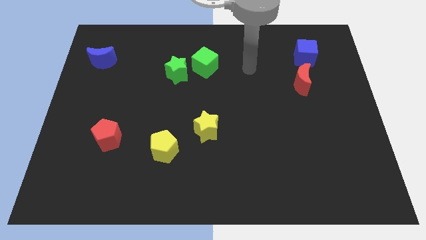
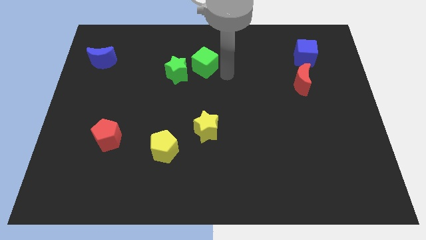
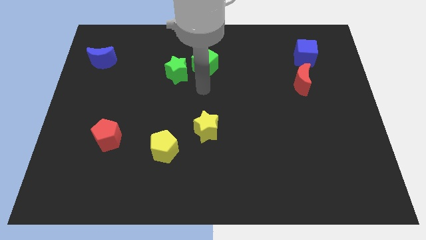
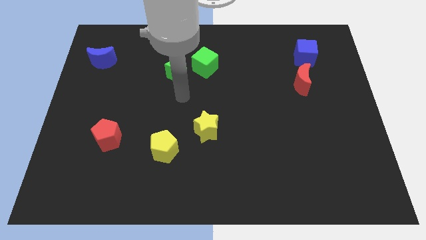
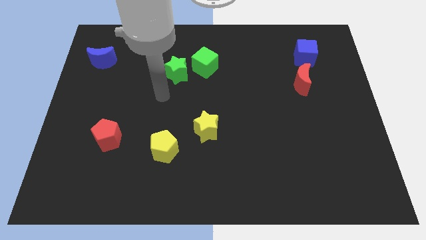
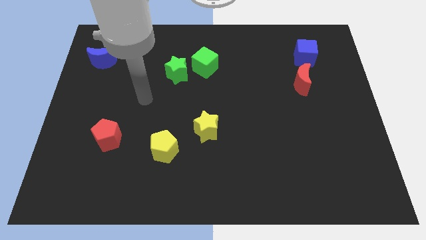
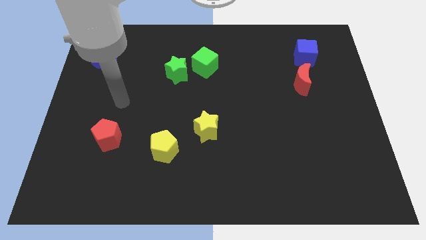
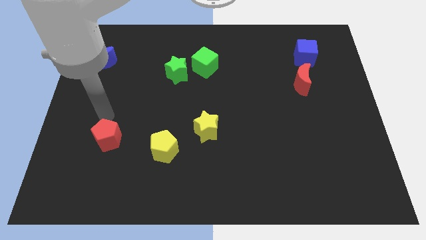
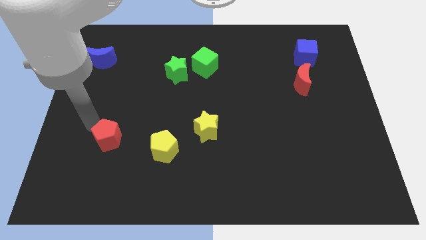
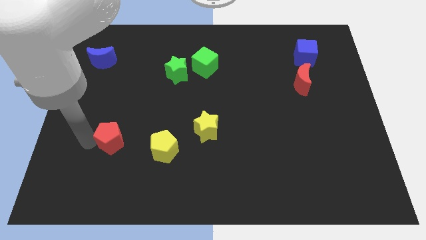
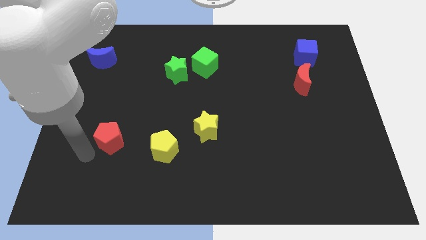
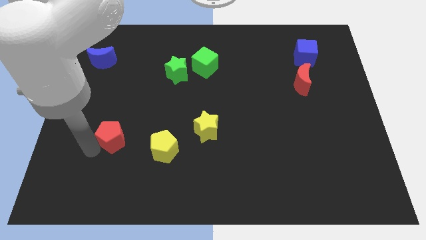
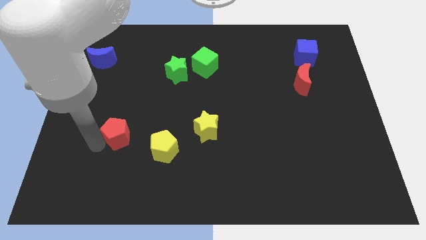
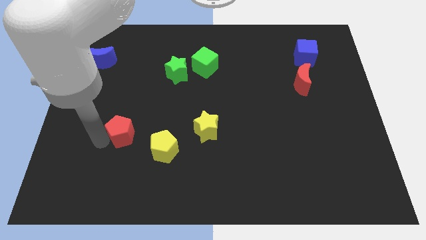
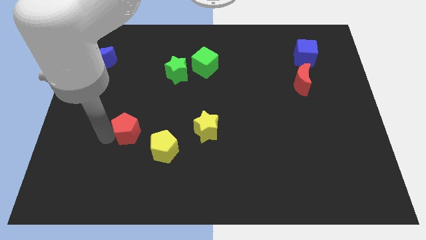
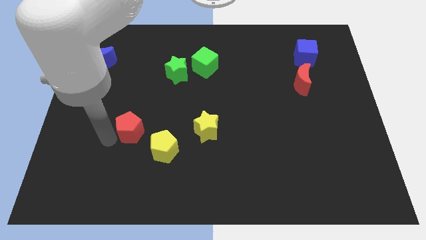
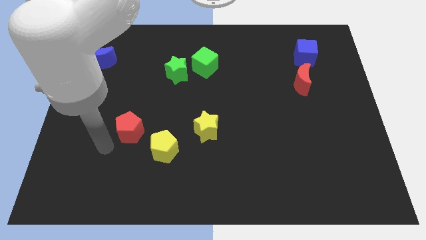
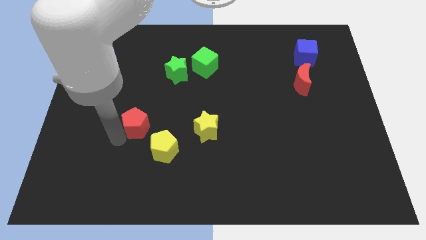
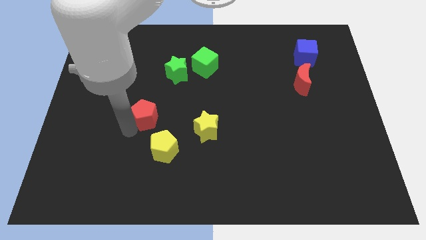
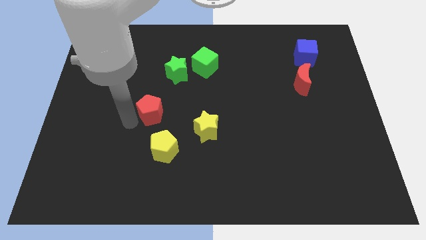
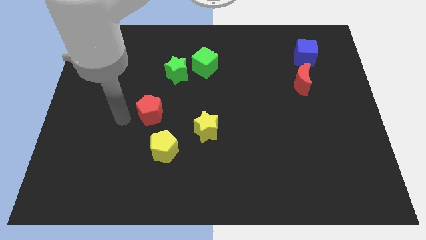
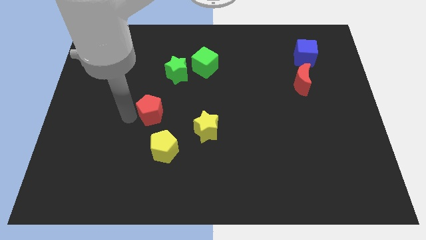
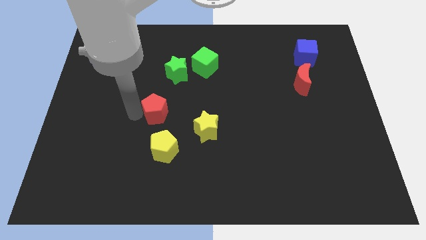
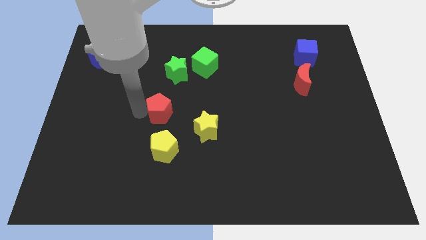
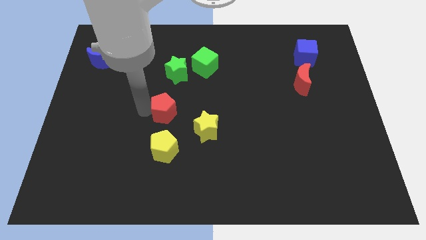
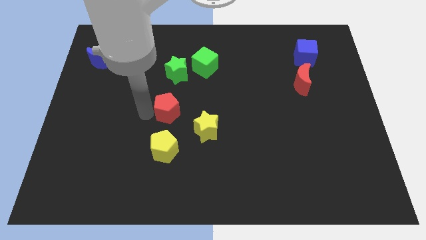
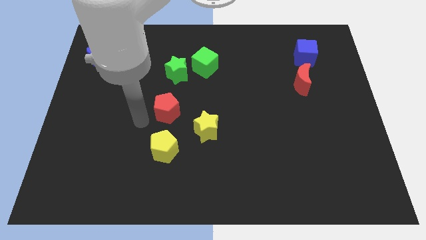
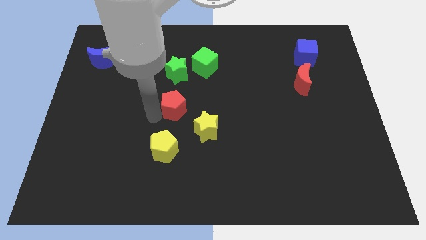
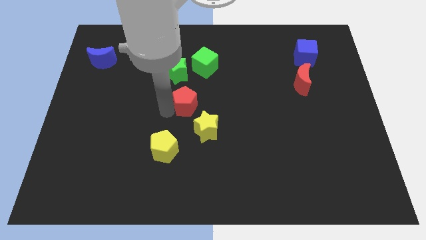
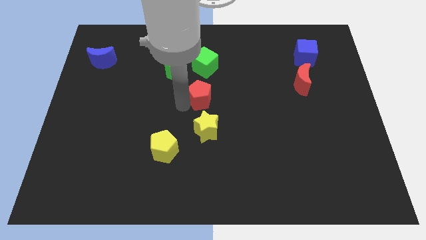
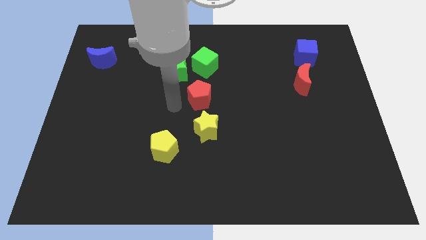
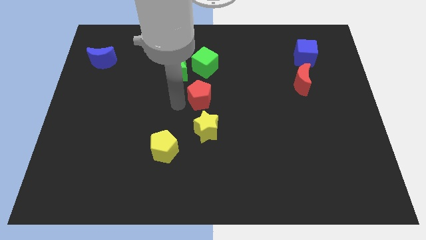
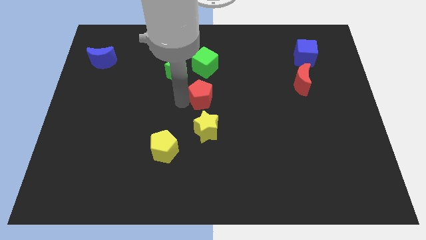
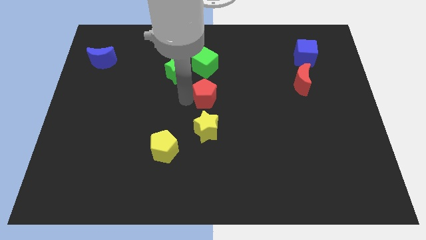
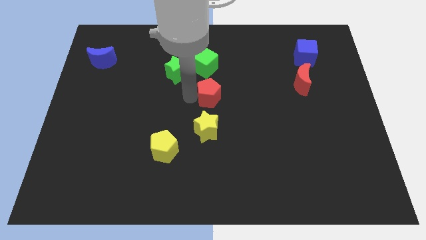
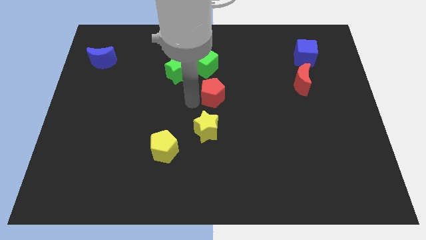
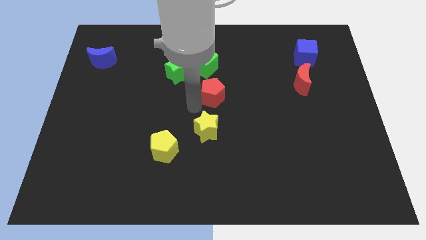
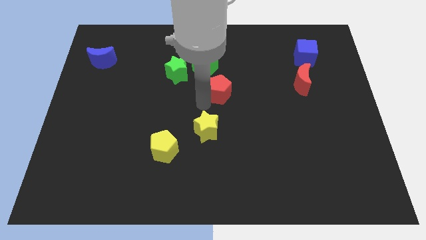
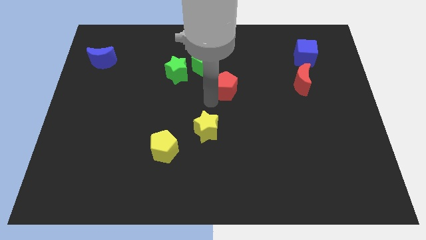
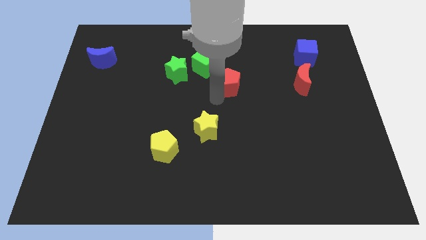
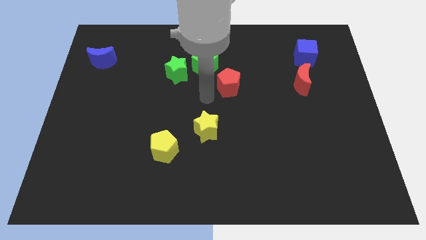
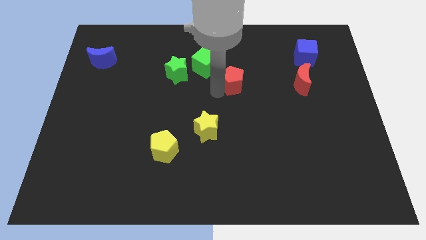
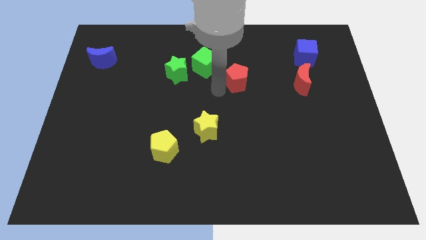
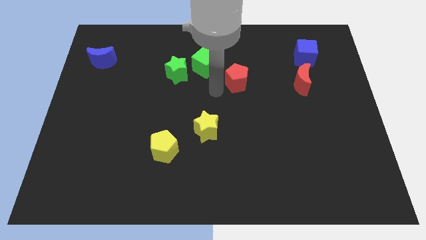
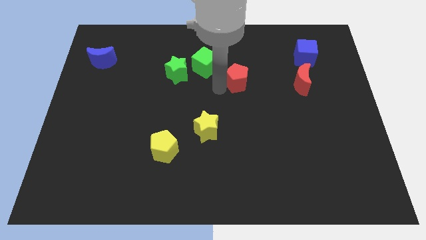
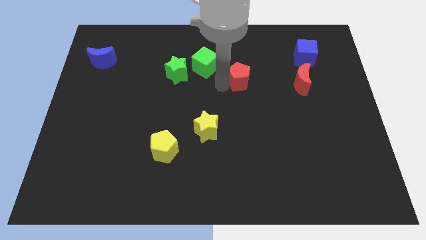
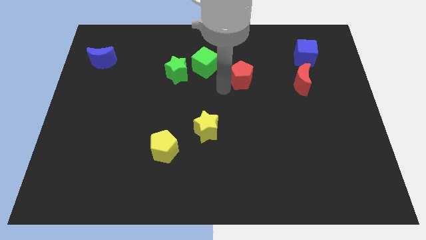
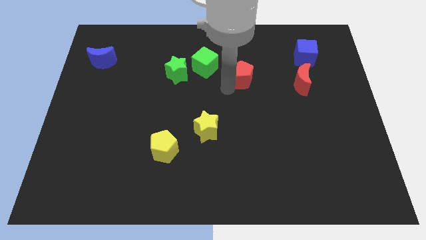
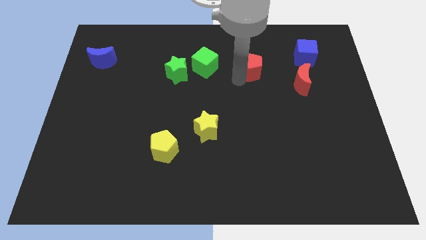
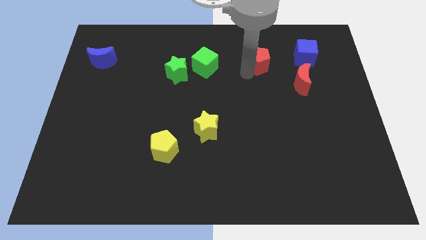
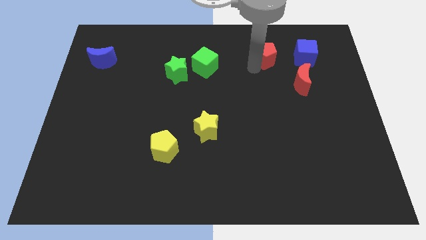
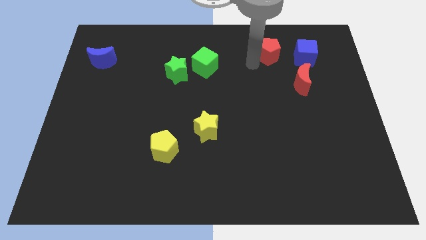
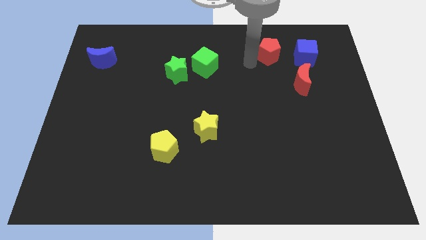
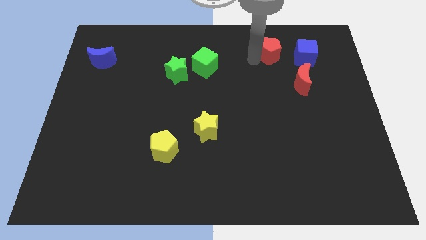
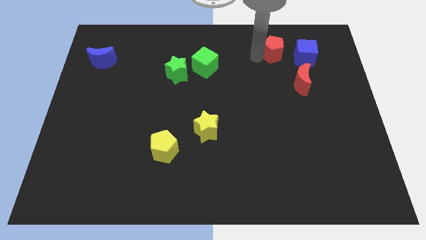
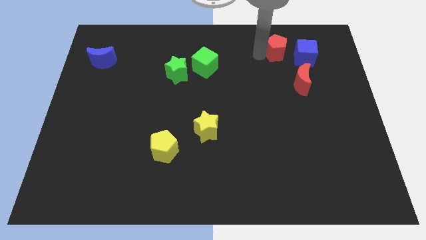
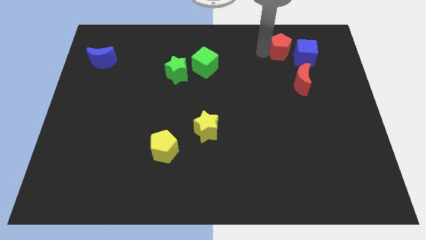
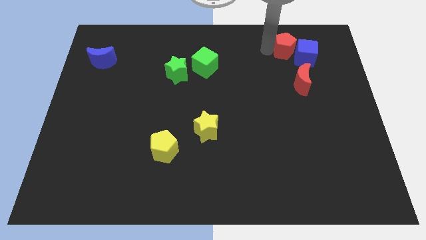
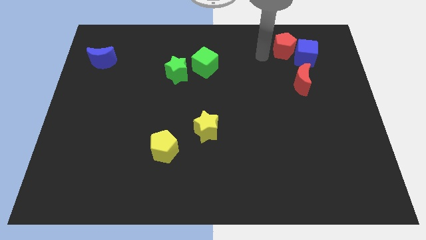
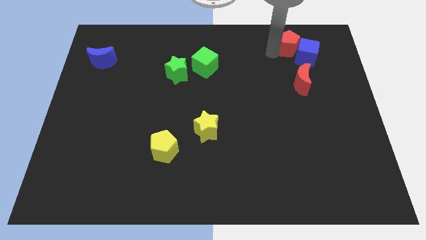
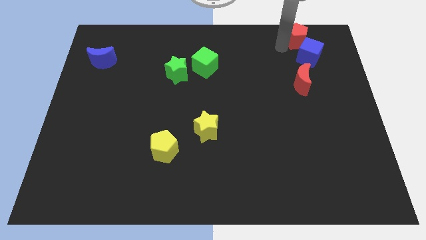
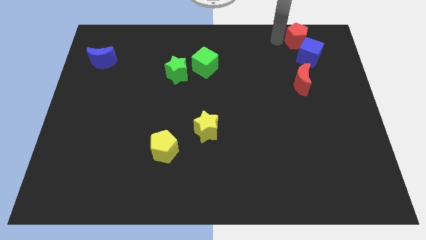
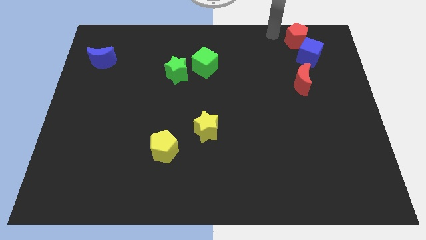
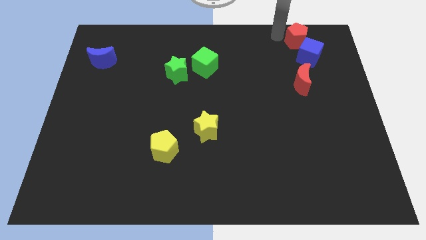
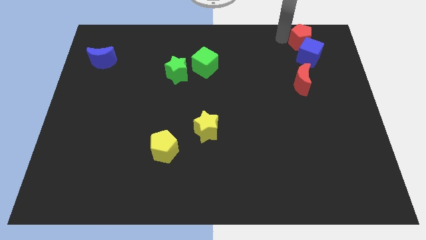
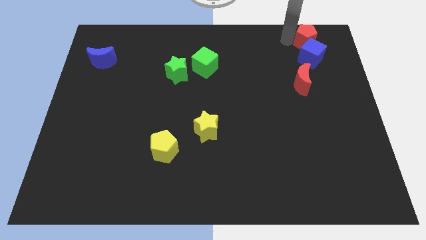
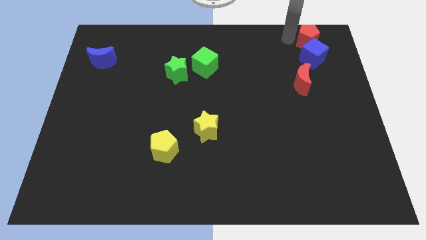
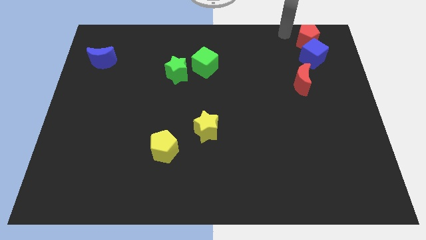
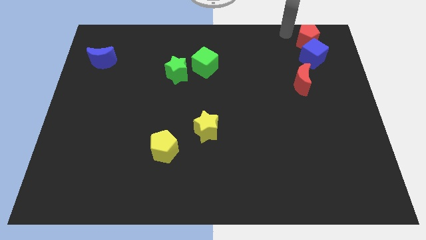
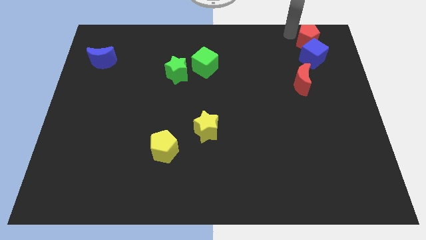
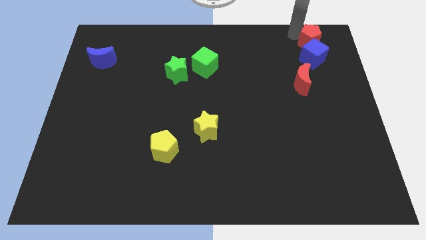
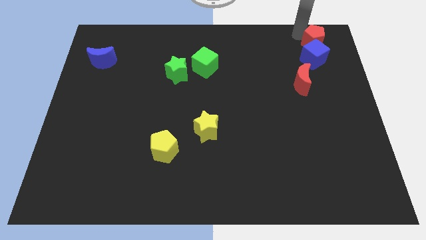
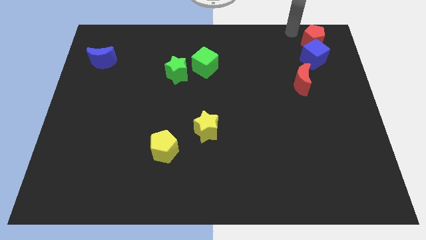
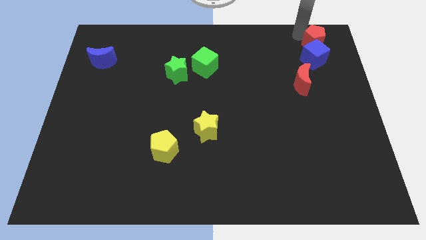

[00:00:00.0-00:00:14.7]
slide the red pentagon to the top right of the board
